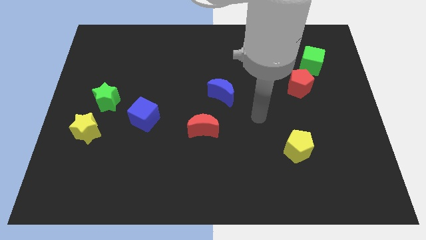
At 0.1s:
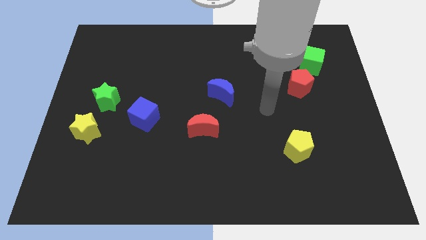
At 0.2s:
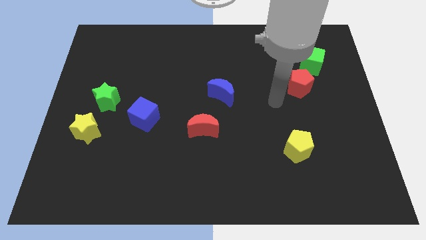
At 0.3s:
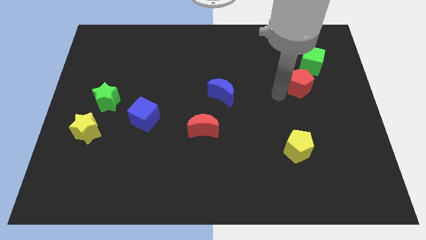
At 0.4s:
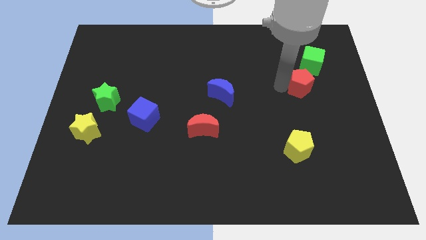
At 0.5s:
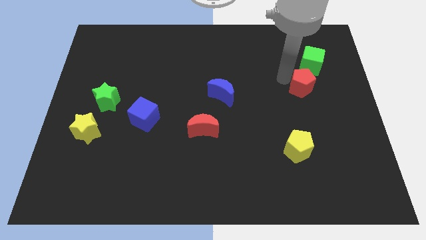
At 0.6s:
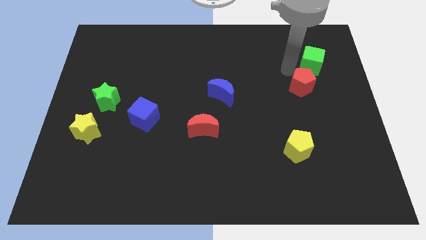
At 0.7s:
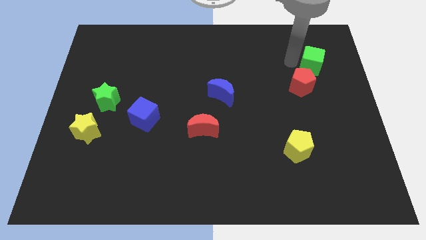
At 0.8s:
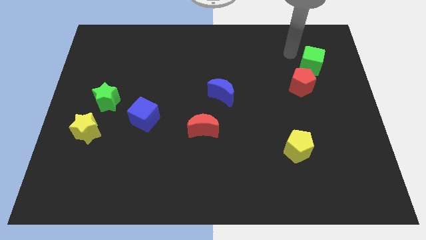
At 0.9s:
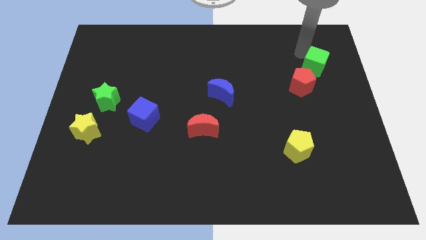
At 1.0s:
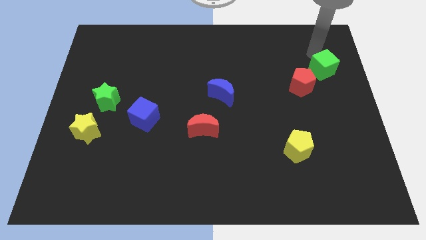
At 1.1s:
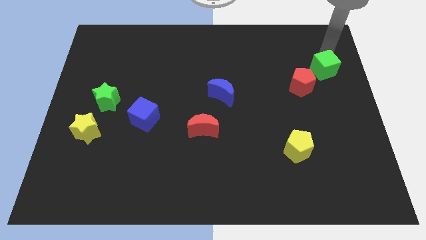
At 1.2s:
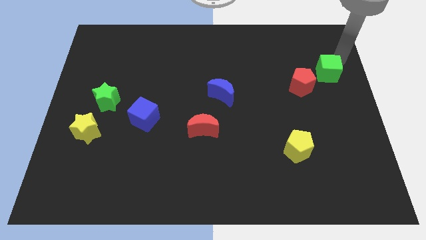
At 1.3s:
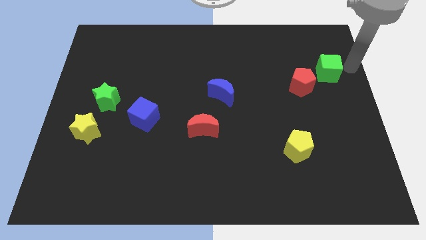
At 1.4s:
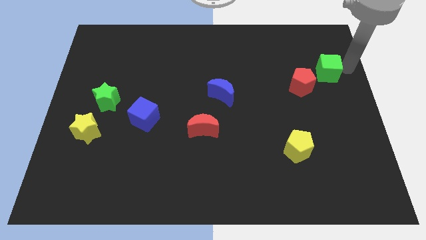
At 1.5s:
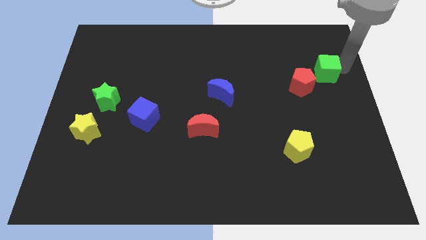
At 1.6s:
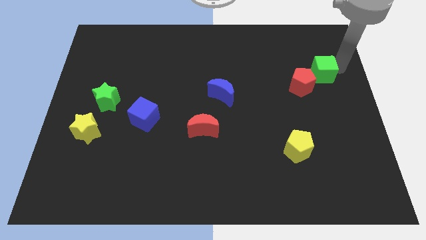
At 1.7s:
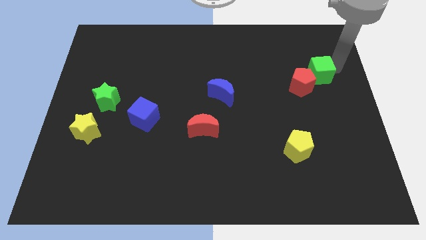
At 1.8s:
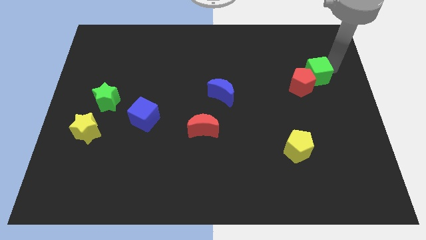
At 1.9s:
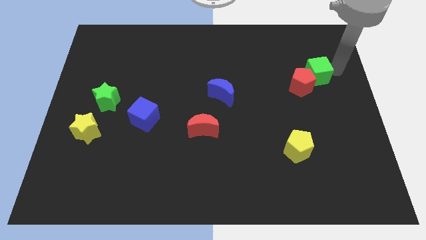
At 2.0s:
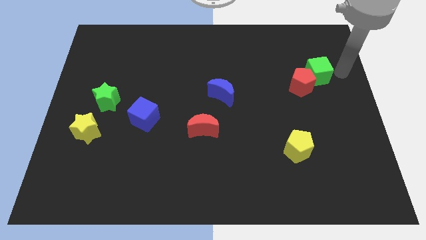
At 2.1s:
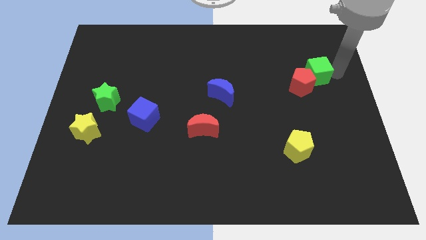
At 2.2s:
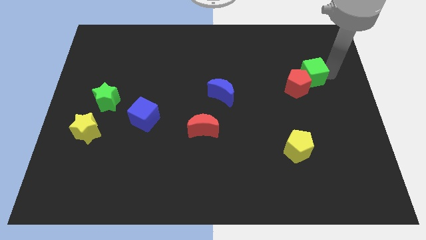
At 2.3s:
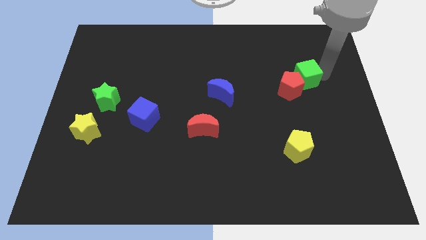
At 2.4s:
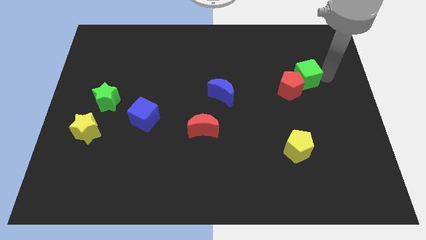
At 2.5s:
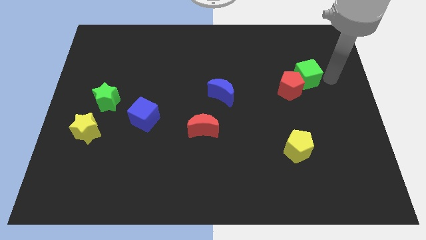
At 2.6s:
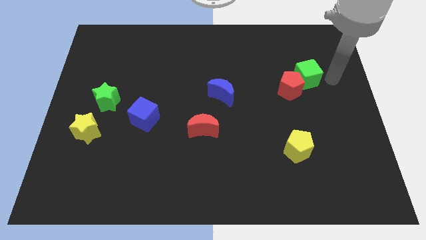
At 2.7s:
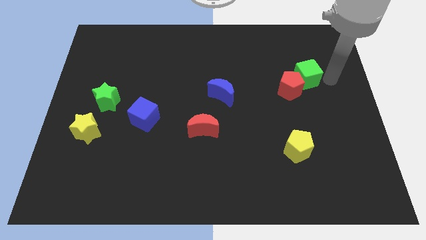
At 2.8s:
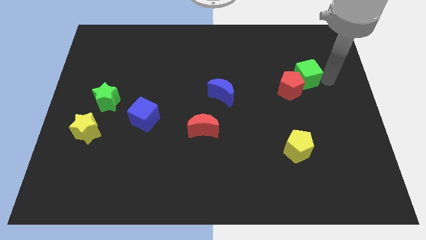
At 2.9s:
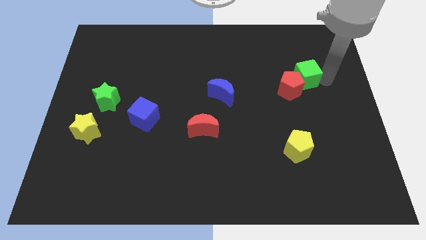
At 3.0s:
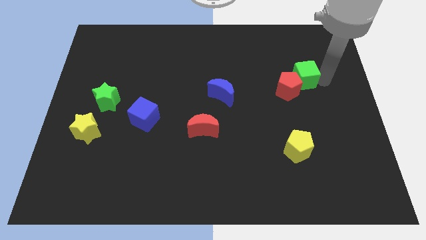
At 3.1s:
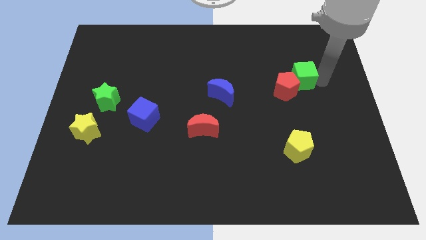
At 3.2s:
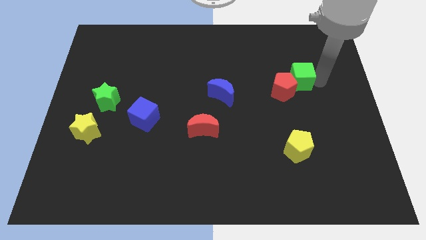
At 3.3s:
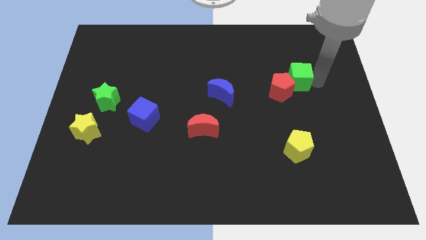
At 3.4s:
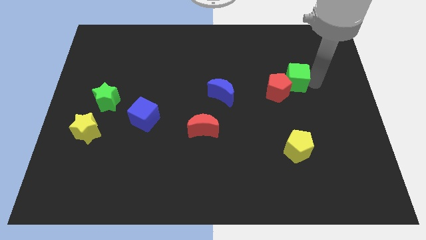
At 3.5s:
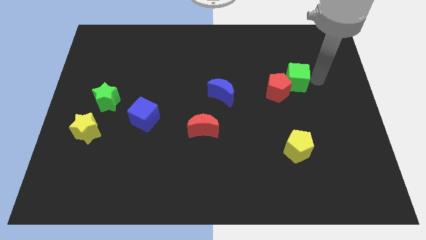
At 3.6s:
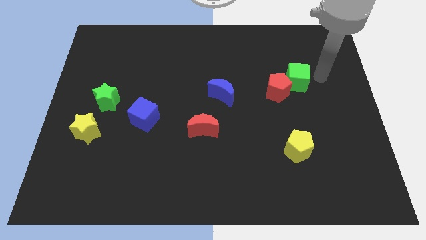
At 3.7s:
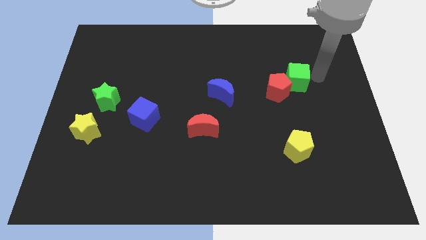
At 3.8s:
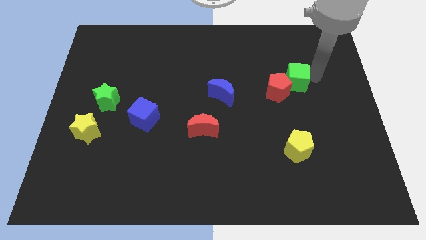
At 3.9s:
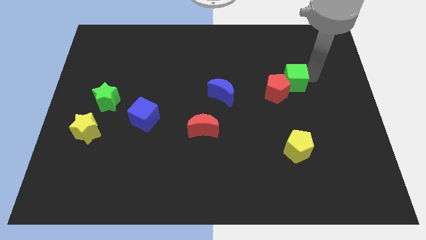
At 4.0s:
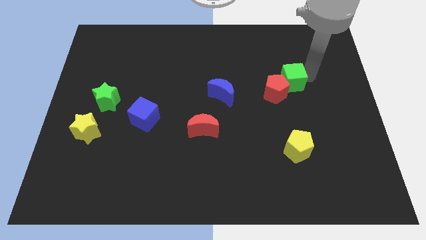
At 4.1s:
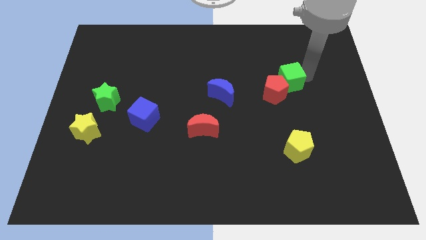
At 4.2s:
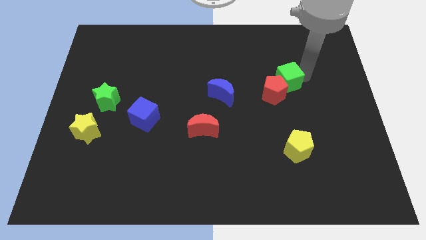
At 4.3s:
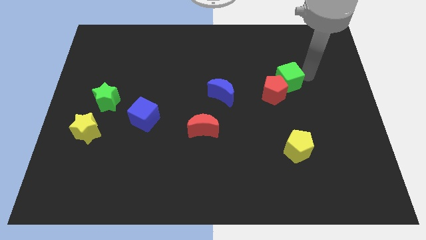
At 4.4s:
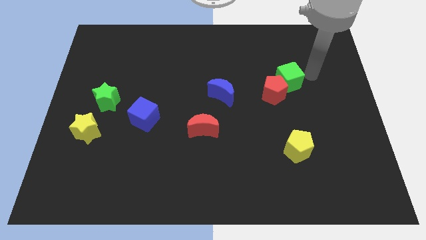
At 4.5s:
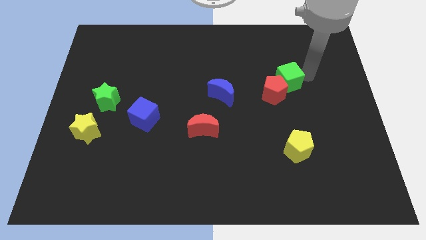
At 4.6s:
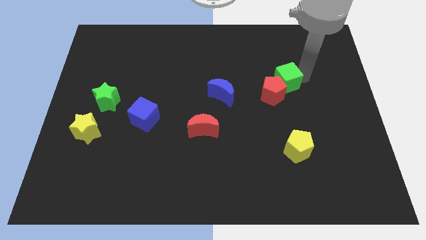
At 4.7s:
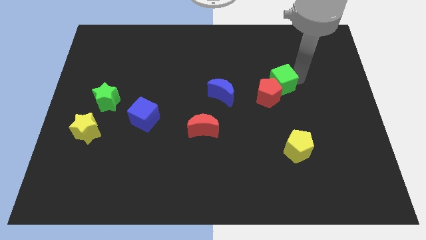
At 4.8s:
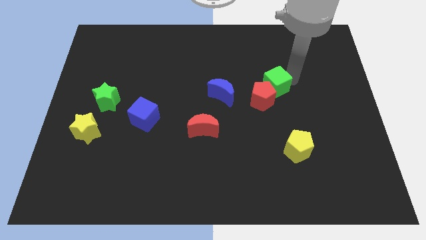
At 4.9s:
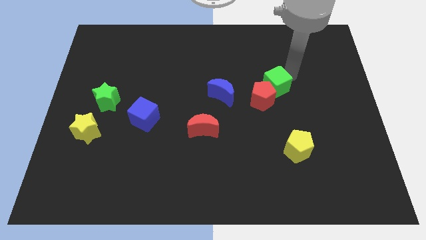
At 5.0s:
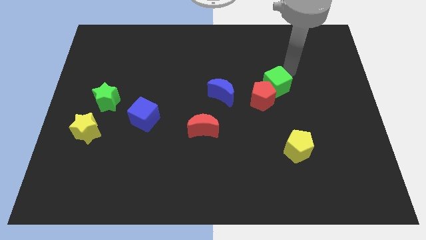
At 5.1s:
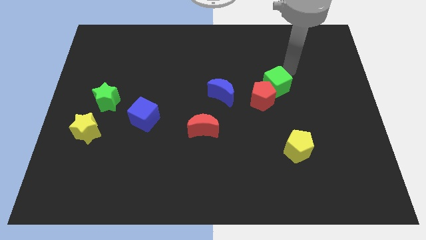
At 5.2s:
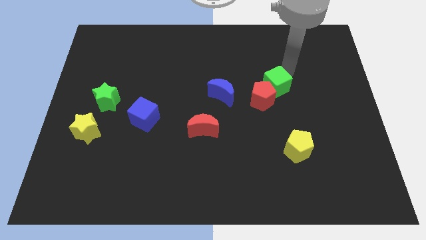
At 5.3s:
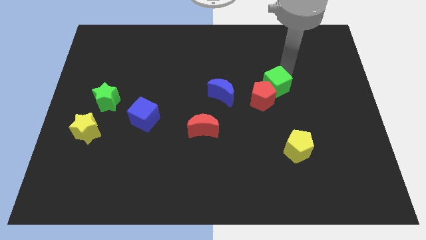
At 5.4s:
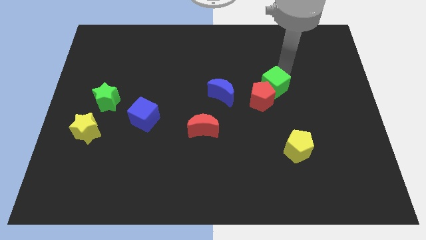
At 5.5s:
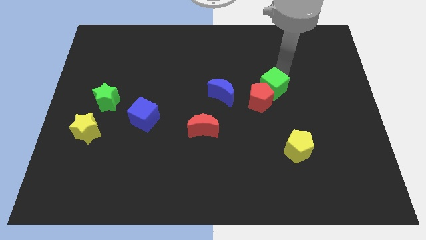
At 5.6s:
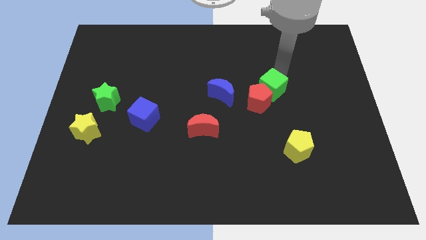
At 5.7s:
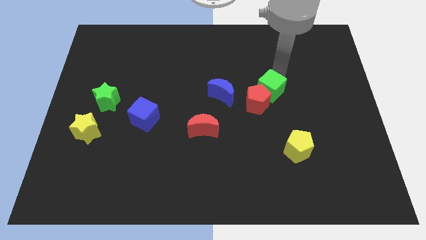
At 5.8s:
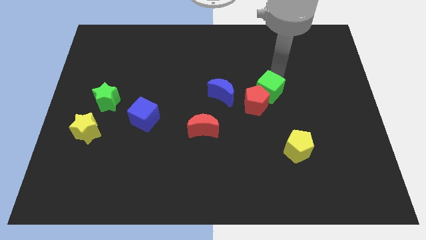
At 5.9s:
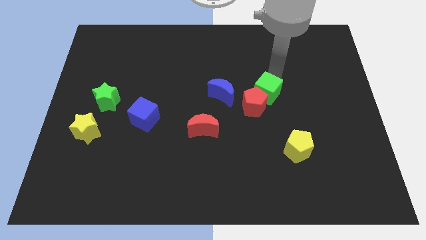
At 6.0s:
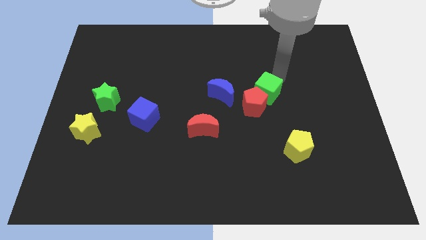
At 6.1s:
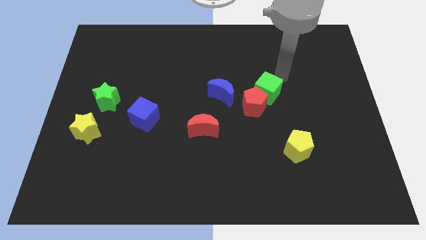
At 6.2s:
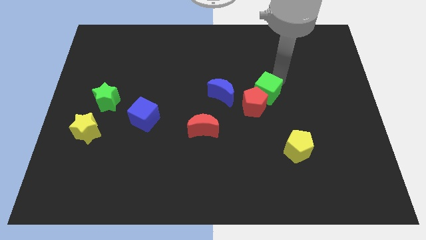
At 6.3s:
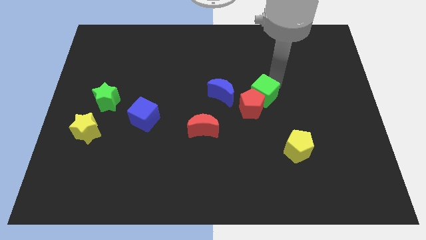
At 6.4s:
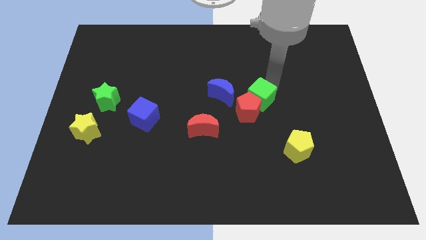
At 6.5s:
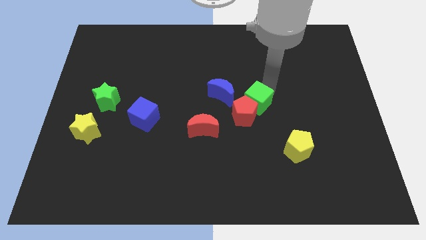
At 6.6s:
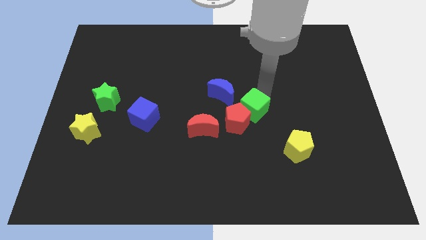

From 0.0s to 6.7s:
push the green cube diagonally downwards and left

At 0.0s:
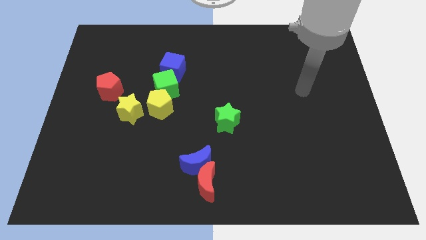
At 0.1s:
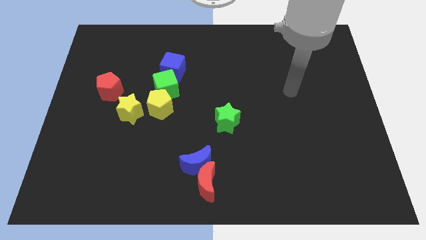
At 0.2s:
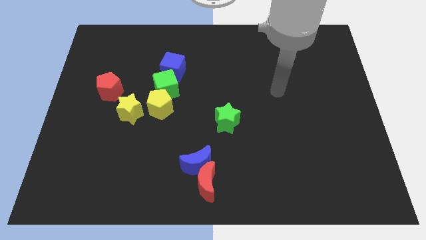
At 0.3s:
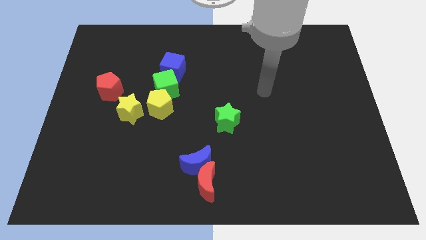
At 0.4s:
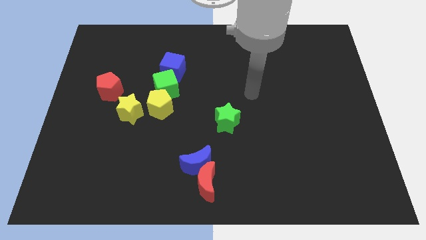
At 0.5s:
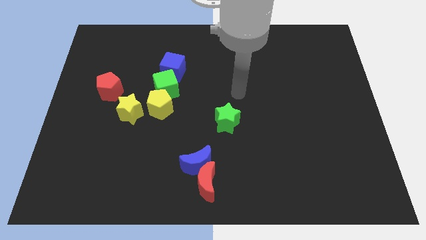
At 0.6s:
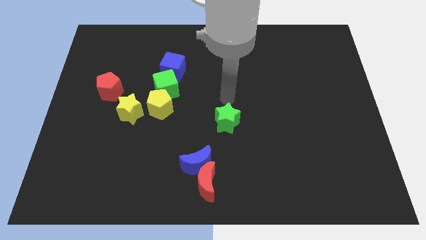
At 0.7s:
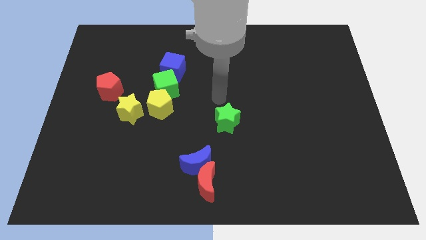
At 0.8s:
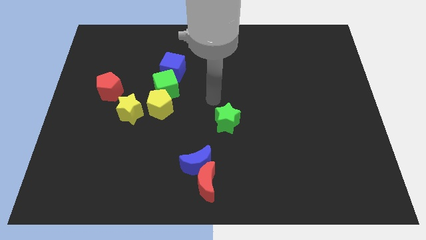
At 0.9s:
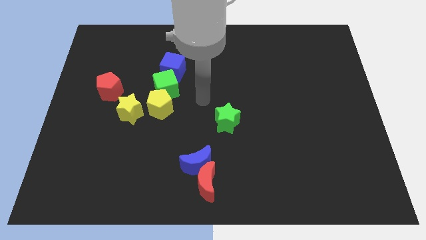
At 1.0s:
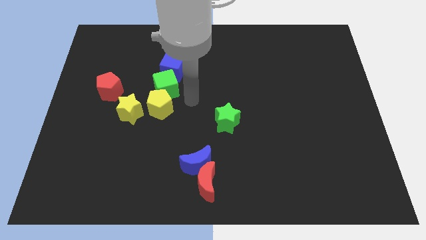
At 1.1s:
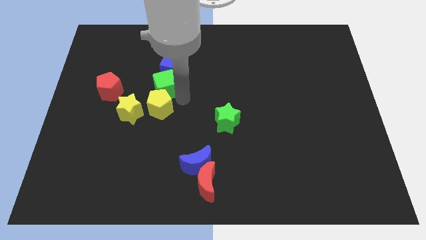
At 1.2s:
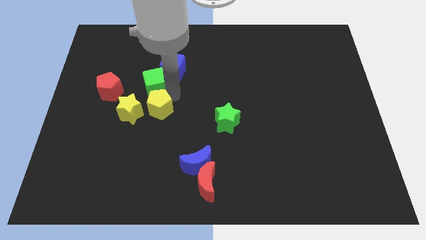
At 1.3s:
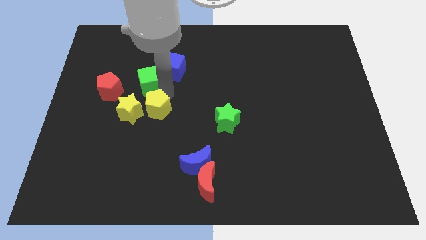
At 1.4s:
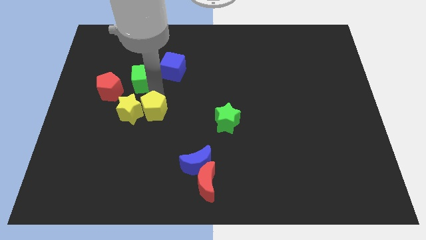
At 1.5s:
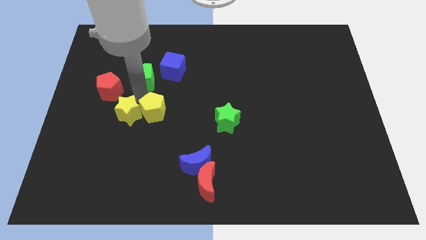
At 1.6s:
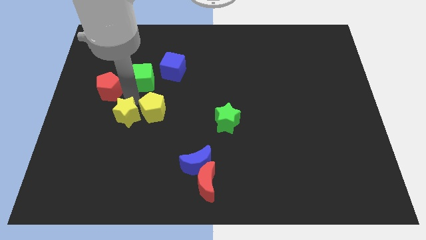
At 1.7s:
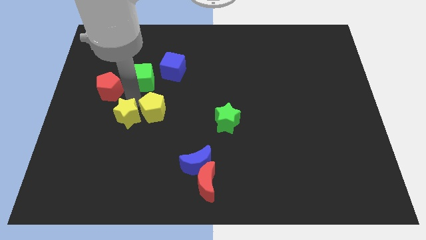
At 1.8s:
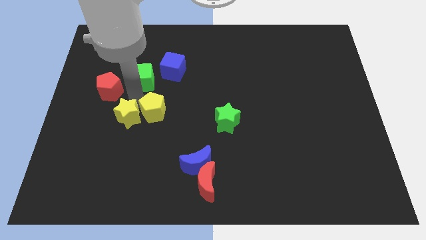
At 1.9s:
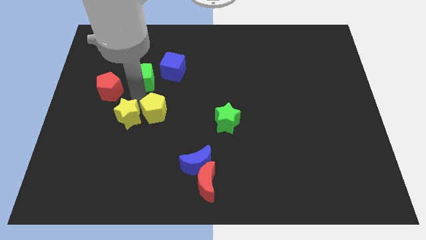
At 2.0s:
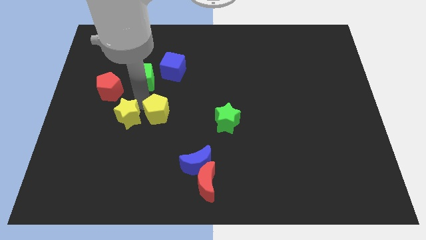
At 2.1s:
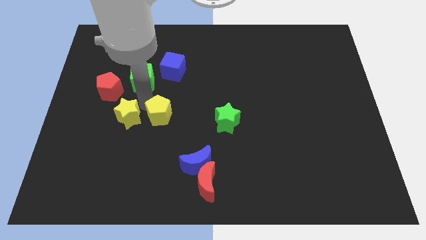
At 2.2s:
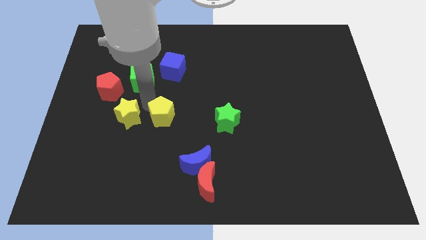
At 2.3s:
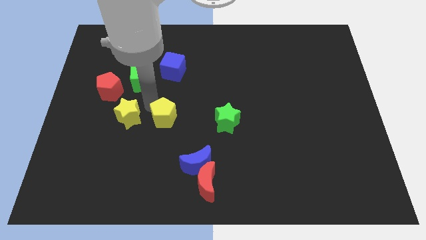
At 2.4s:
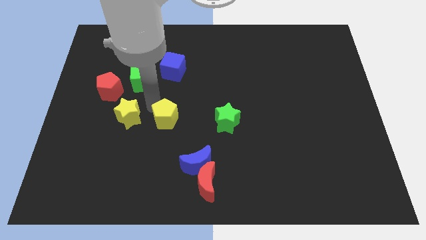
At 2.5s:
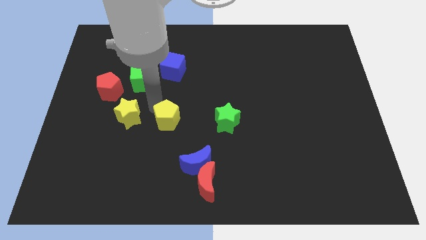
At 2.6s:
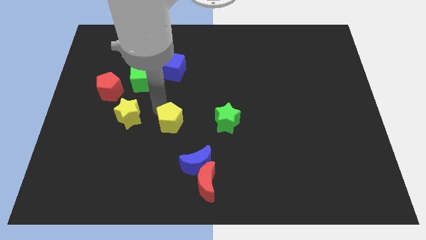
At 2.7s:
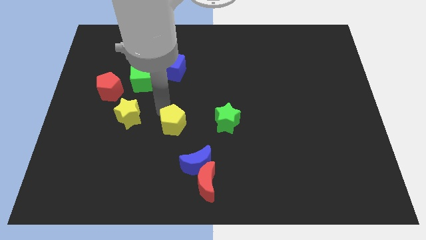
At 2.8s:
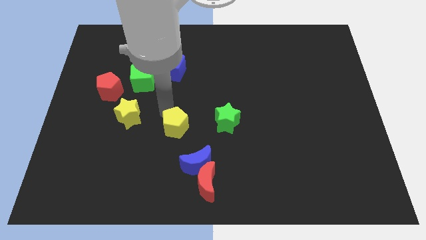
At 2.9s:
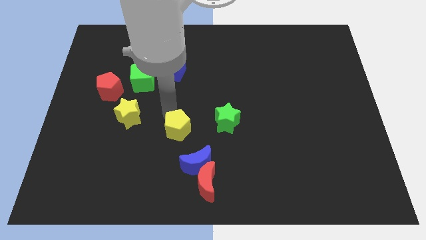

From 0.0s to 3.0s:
push the yellow pentagon a bit down and right diagonally
